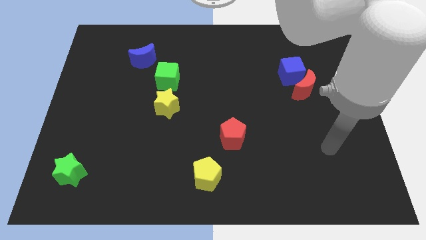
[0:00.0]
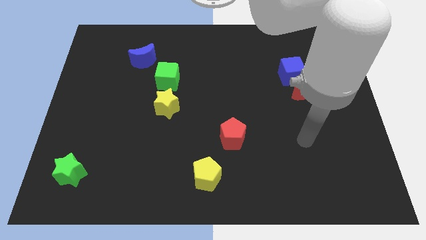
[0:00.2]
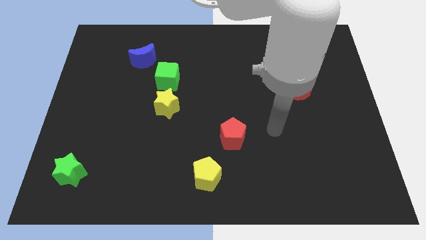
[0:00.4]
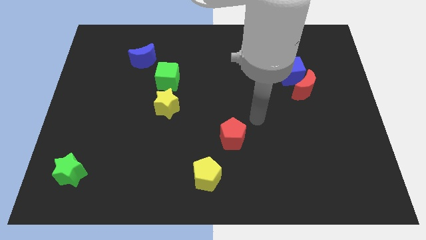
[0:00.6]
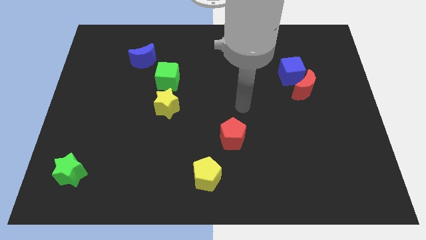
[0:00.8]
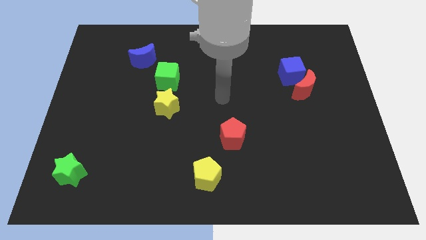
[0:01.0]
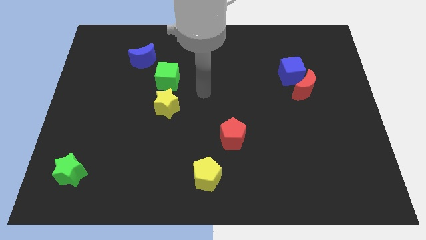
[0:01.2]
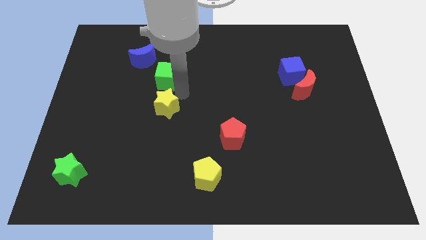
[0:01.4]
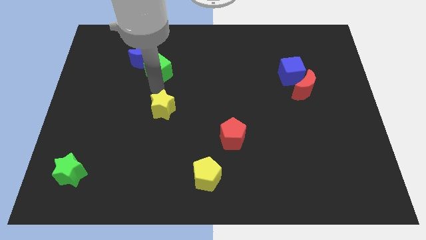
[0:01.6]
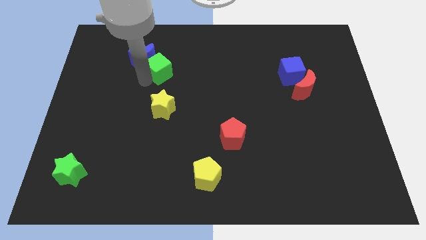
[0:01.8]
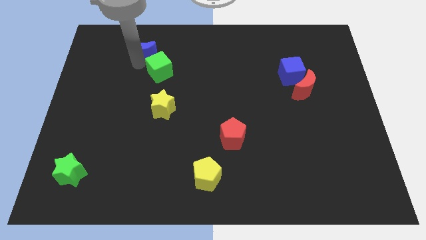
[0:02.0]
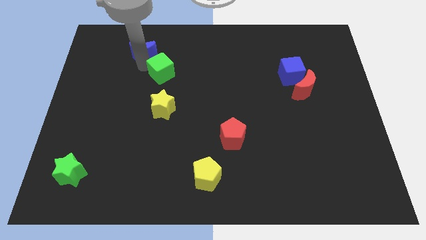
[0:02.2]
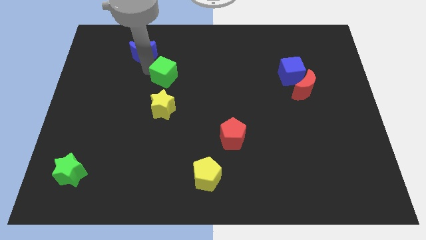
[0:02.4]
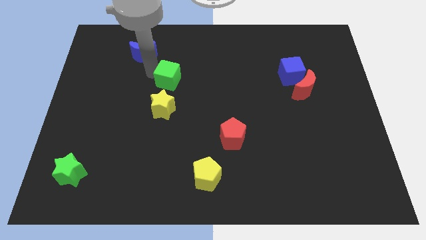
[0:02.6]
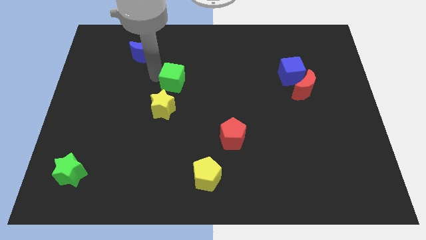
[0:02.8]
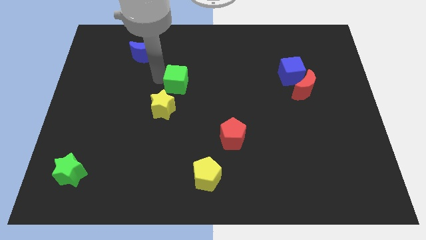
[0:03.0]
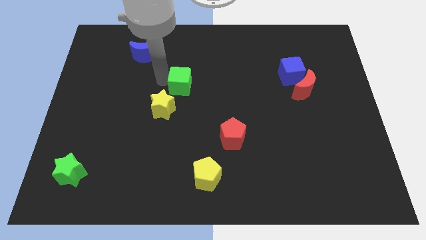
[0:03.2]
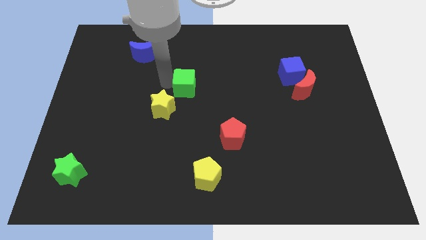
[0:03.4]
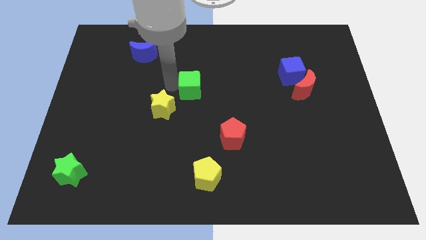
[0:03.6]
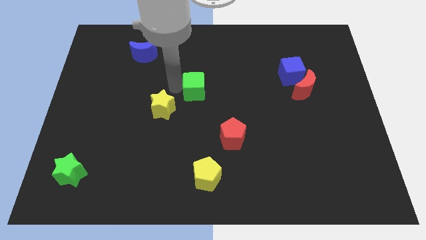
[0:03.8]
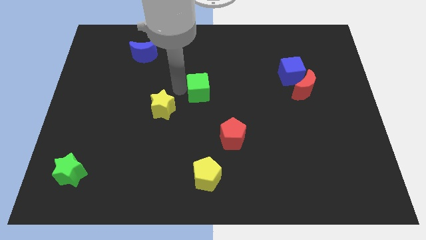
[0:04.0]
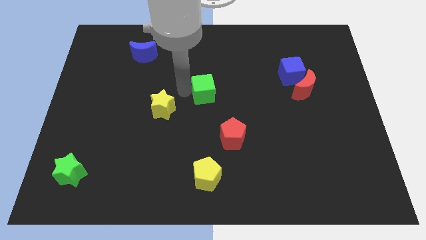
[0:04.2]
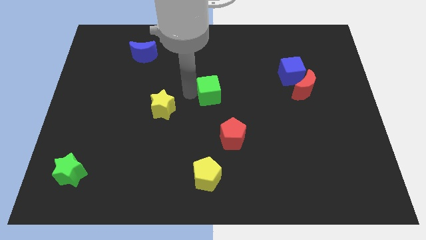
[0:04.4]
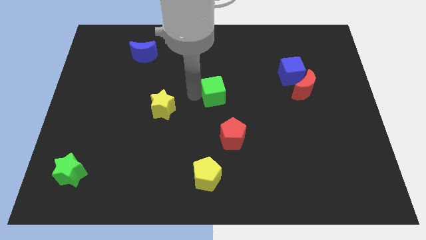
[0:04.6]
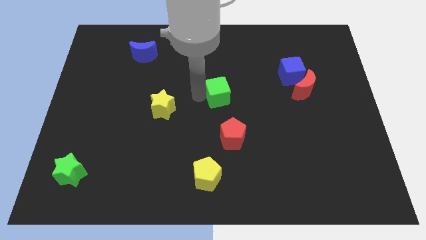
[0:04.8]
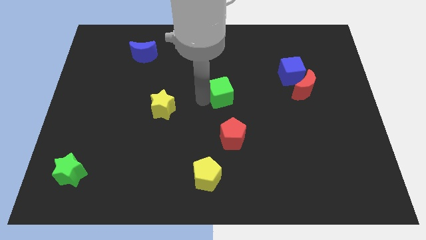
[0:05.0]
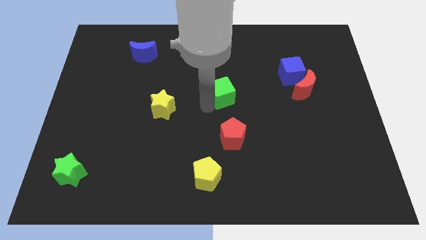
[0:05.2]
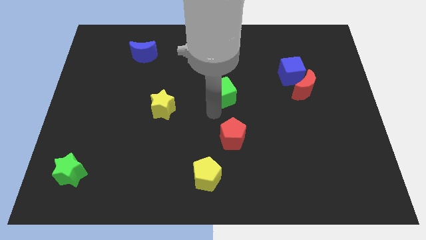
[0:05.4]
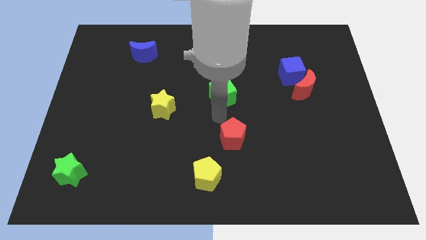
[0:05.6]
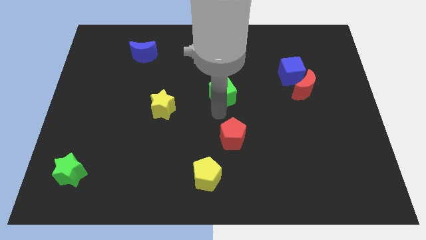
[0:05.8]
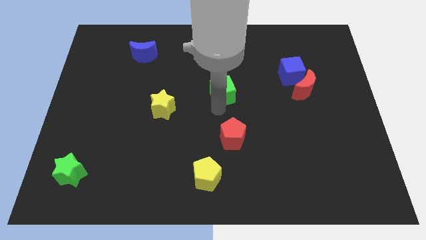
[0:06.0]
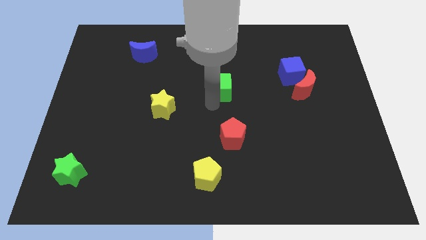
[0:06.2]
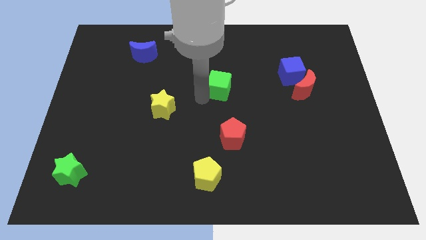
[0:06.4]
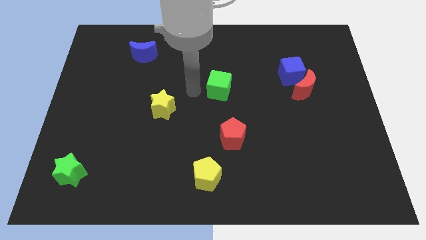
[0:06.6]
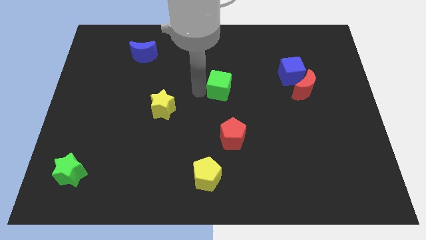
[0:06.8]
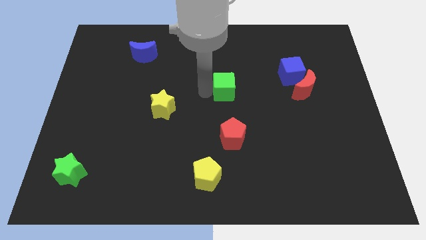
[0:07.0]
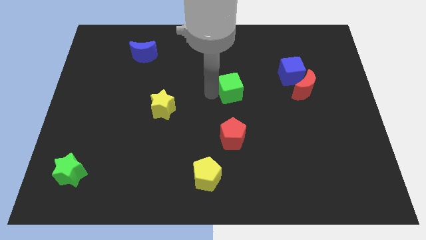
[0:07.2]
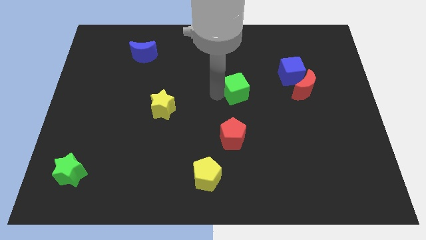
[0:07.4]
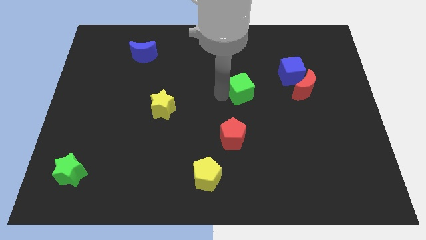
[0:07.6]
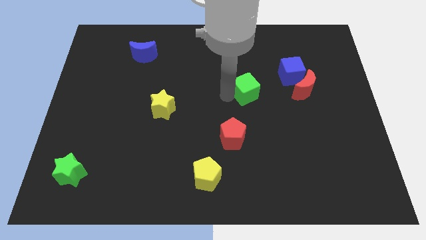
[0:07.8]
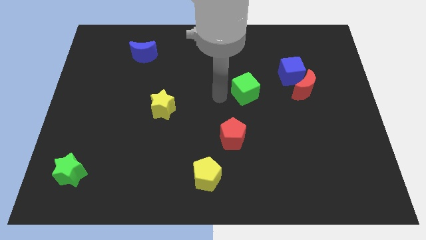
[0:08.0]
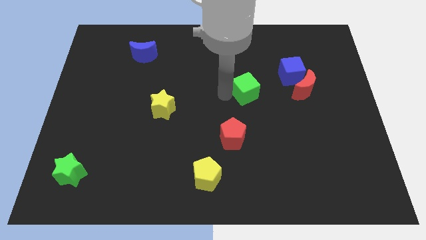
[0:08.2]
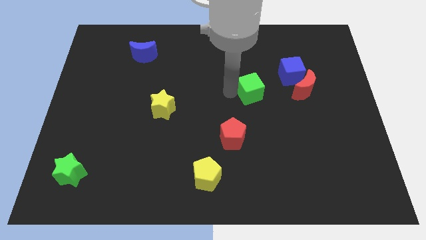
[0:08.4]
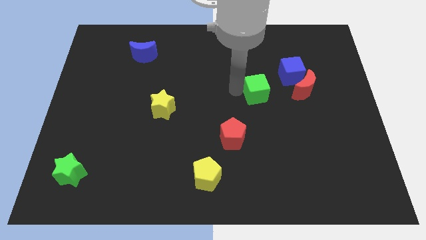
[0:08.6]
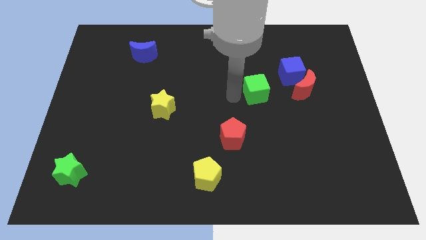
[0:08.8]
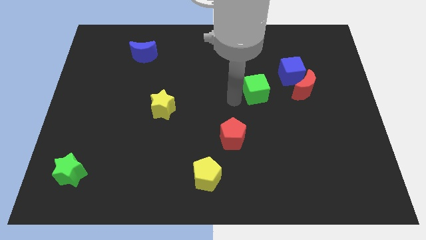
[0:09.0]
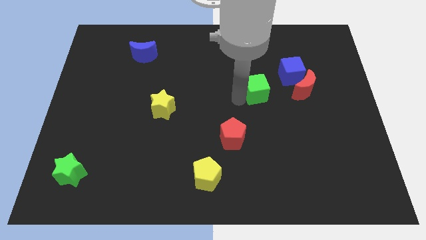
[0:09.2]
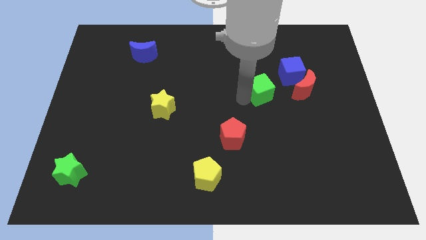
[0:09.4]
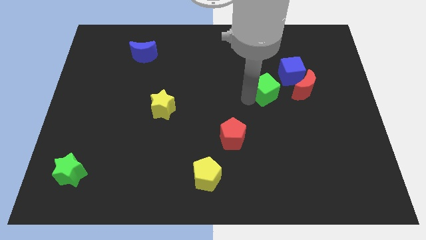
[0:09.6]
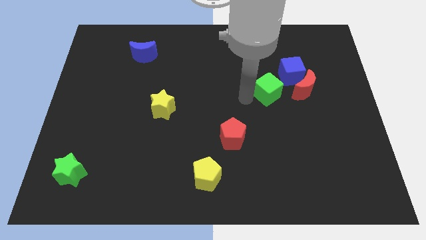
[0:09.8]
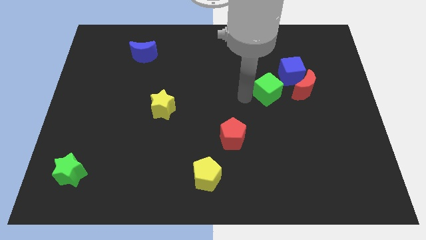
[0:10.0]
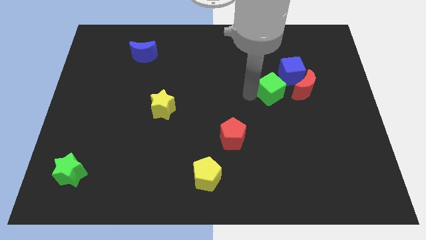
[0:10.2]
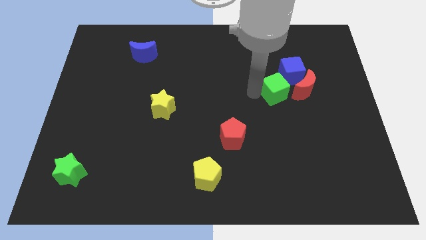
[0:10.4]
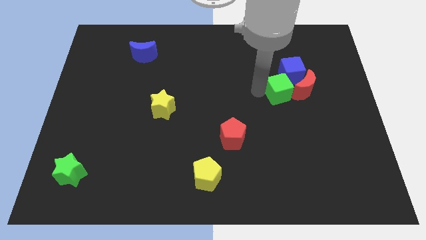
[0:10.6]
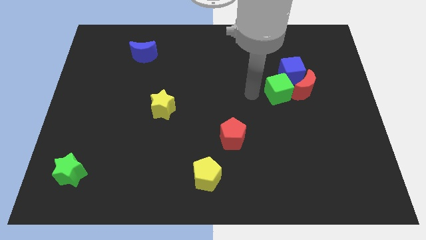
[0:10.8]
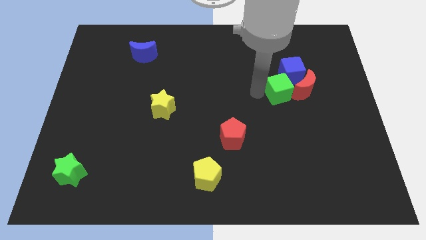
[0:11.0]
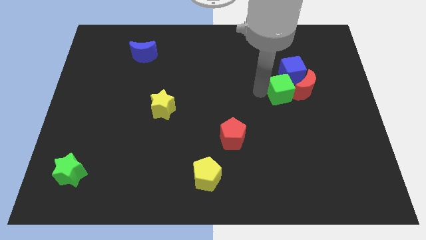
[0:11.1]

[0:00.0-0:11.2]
put the green cube towards the red moon
